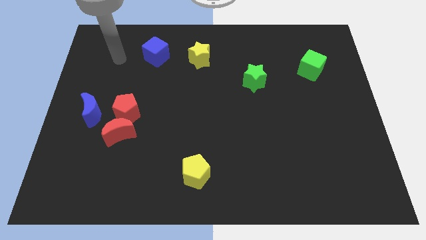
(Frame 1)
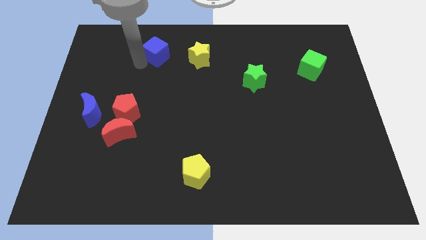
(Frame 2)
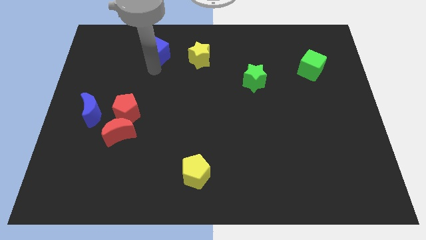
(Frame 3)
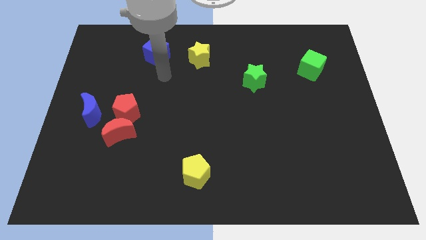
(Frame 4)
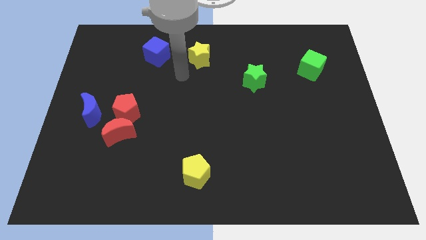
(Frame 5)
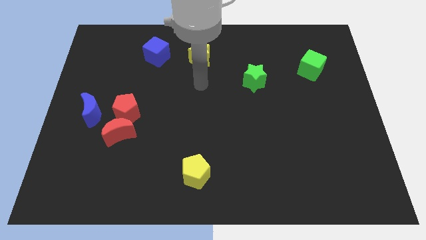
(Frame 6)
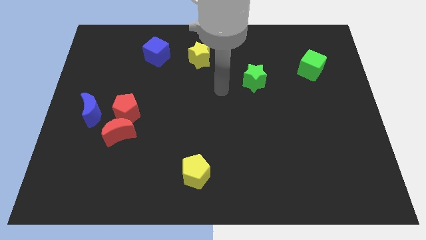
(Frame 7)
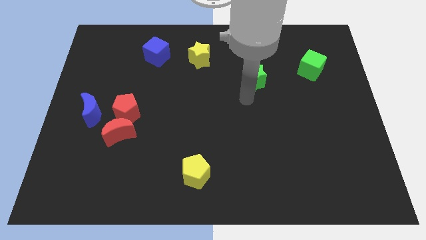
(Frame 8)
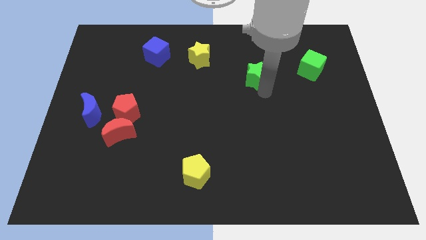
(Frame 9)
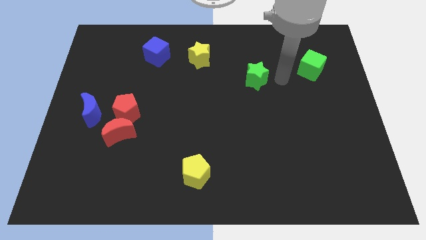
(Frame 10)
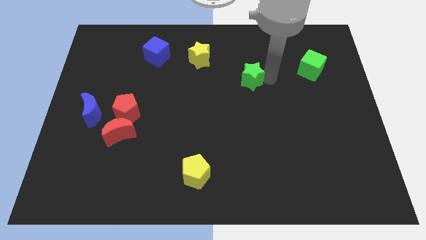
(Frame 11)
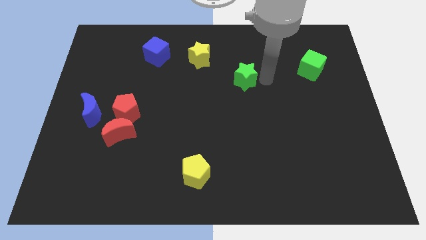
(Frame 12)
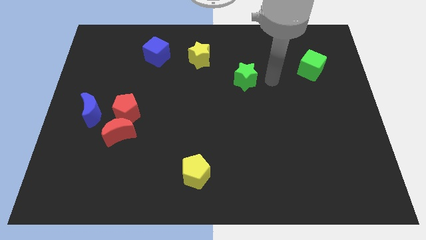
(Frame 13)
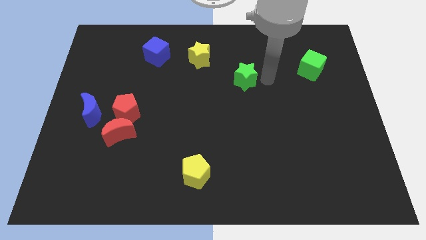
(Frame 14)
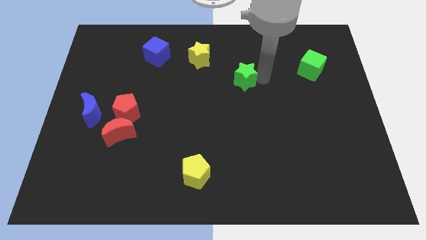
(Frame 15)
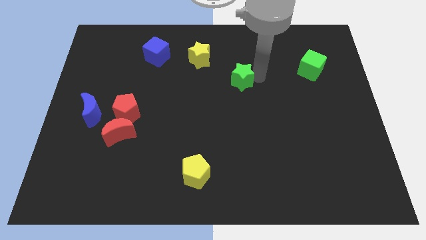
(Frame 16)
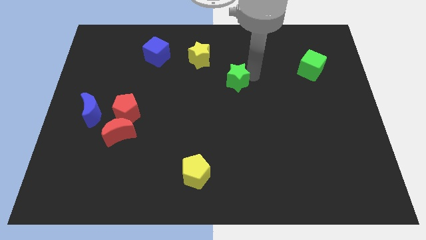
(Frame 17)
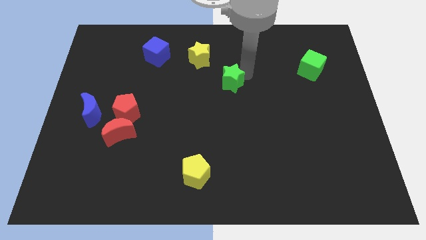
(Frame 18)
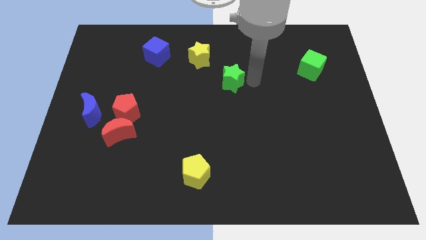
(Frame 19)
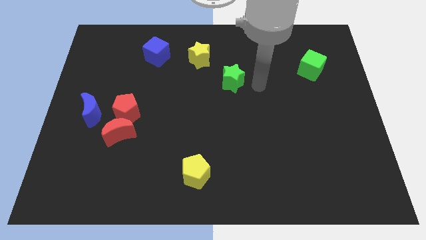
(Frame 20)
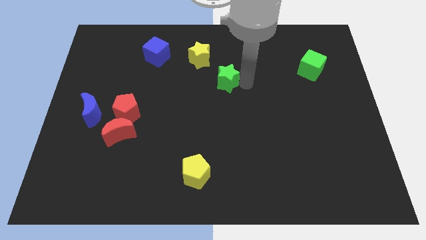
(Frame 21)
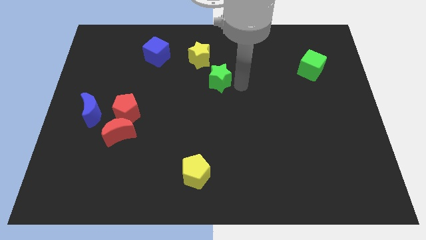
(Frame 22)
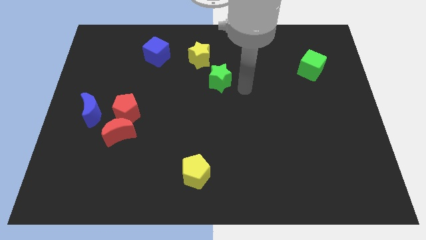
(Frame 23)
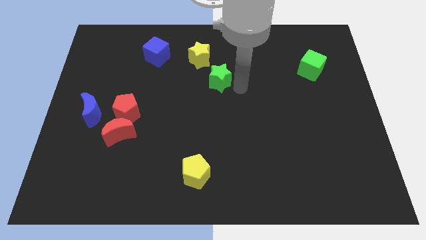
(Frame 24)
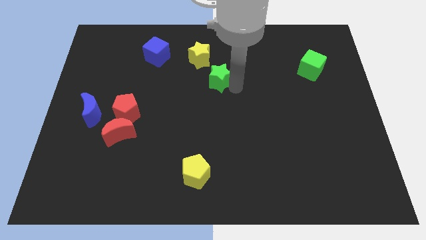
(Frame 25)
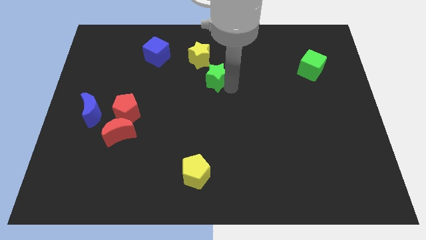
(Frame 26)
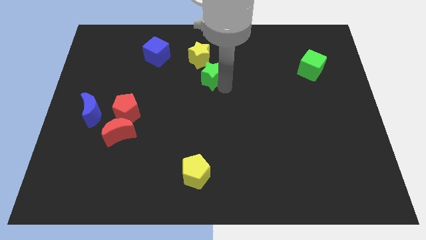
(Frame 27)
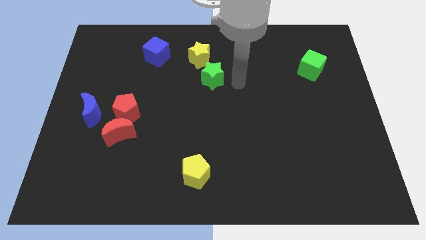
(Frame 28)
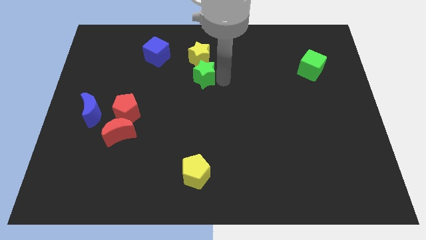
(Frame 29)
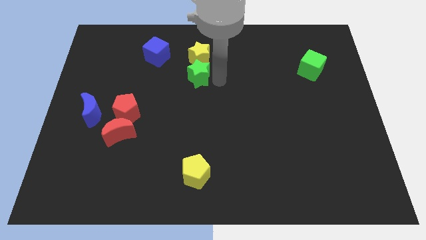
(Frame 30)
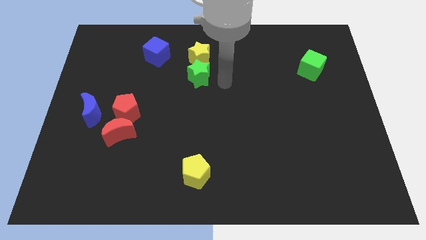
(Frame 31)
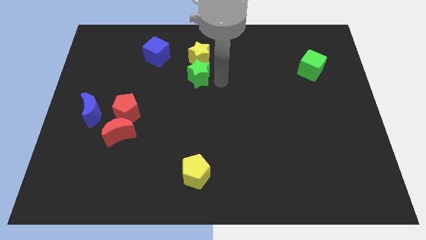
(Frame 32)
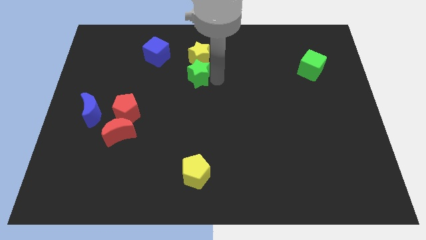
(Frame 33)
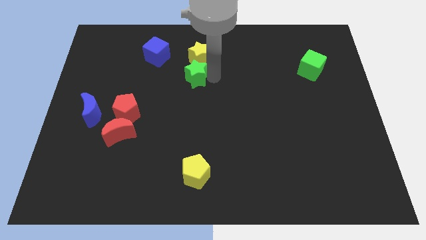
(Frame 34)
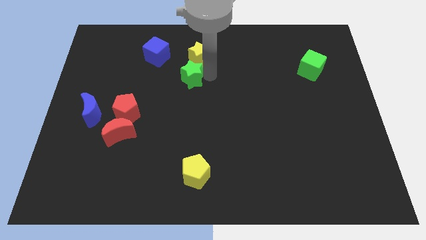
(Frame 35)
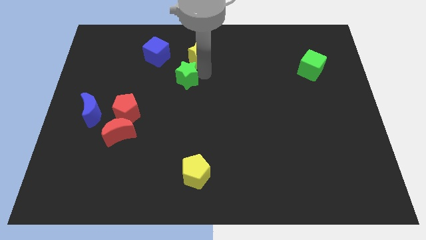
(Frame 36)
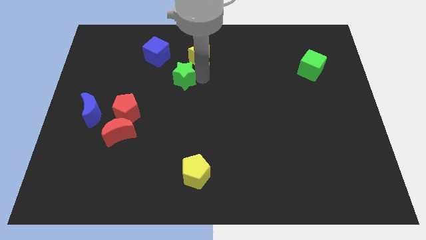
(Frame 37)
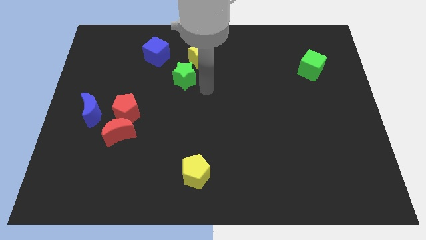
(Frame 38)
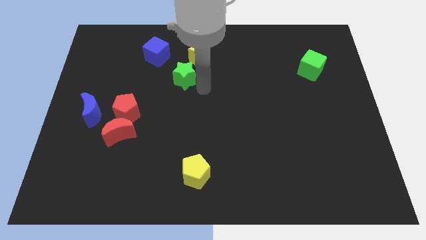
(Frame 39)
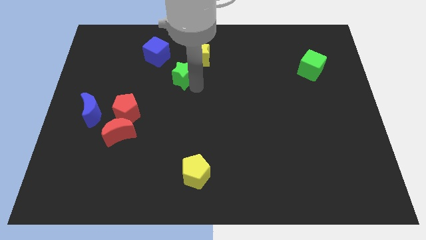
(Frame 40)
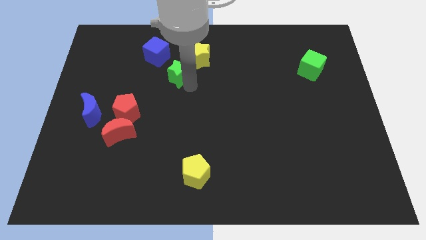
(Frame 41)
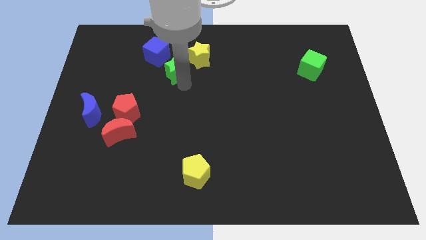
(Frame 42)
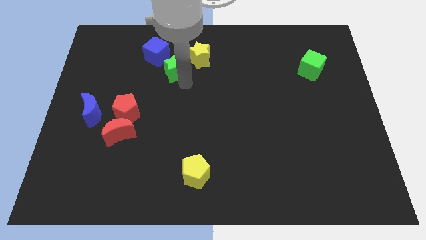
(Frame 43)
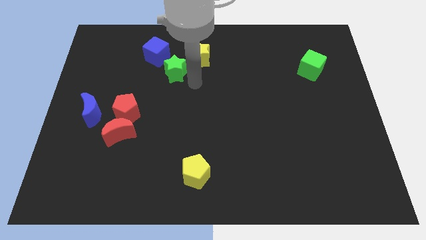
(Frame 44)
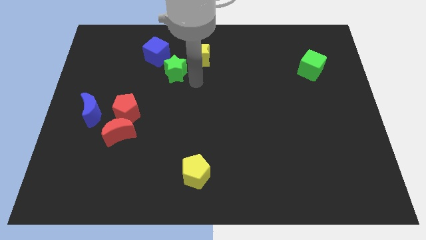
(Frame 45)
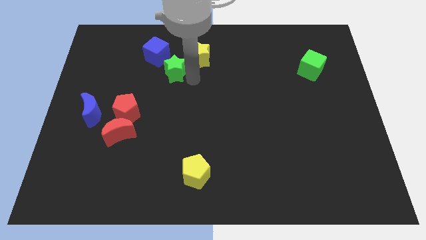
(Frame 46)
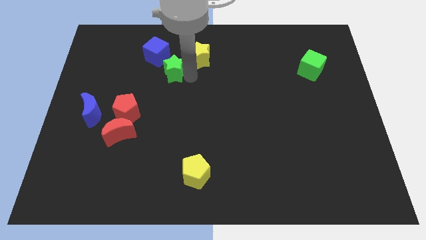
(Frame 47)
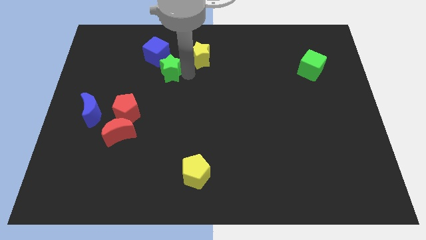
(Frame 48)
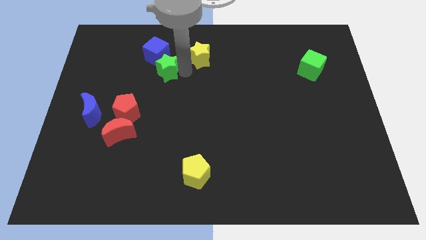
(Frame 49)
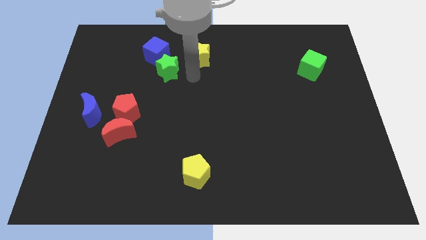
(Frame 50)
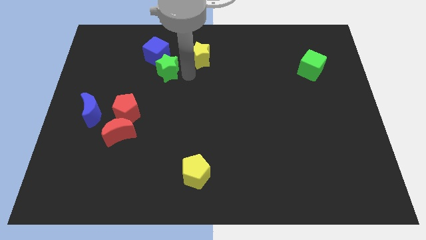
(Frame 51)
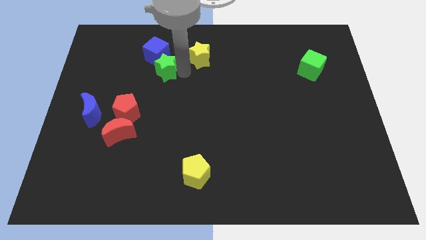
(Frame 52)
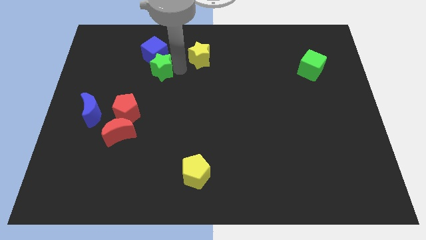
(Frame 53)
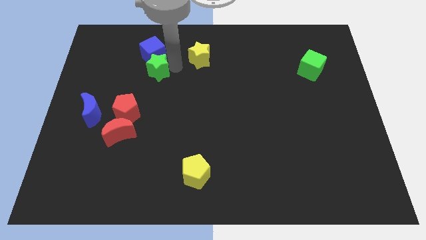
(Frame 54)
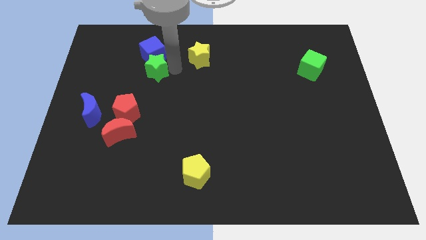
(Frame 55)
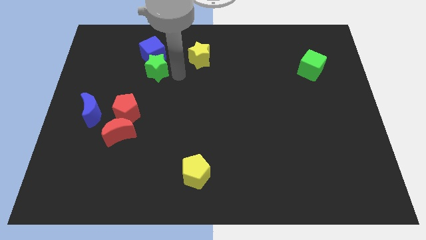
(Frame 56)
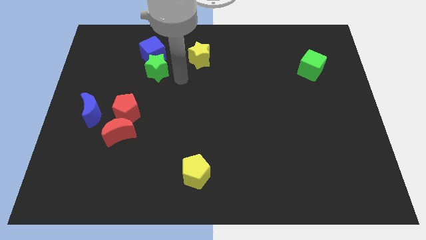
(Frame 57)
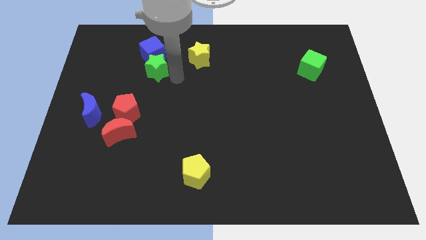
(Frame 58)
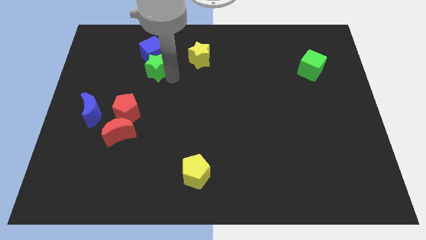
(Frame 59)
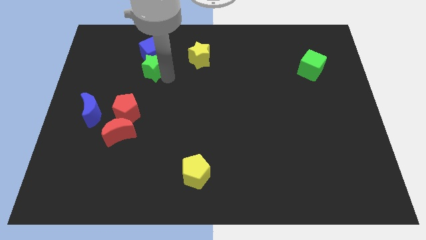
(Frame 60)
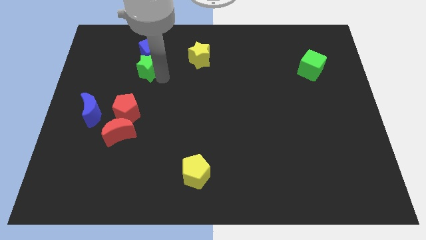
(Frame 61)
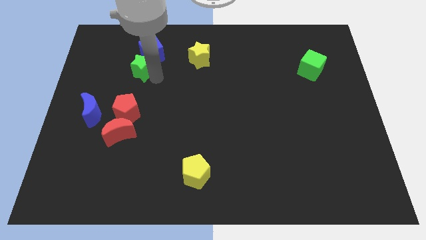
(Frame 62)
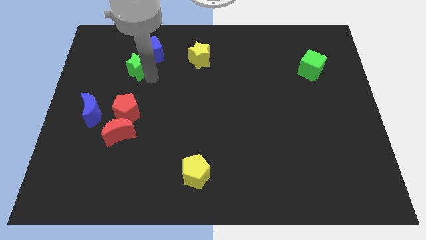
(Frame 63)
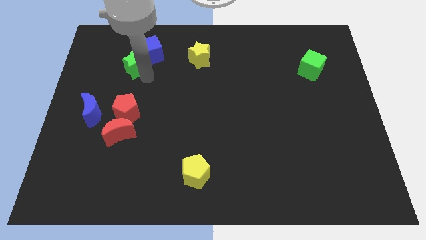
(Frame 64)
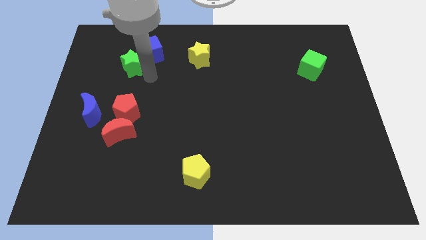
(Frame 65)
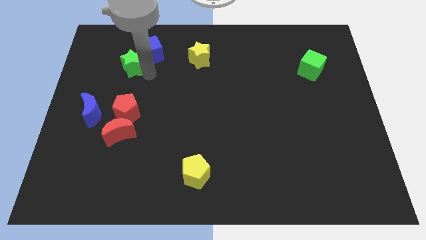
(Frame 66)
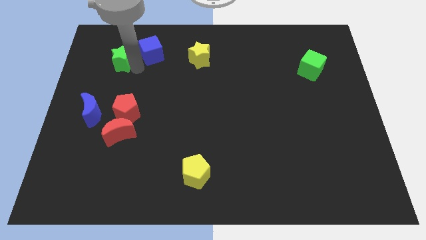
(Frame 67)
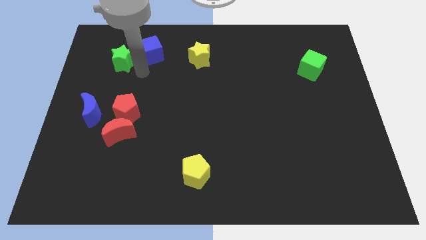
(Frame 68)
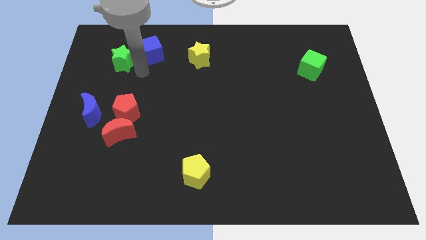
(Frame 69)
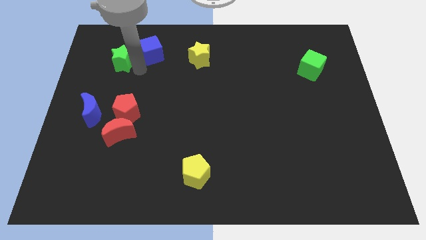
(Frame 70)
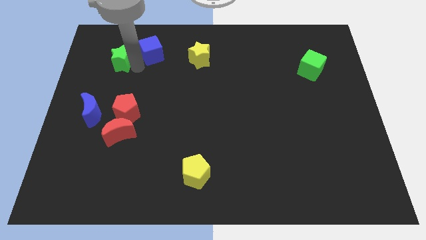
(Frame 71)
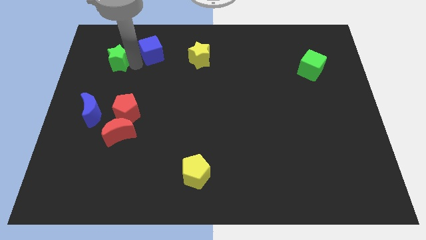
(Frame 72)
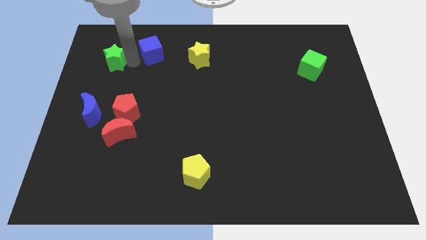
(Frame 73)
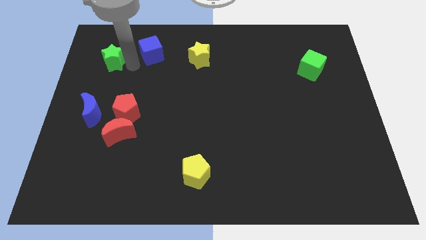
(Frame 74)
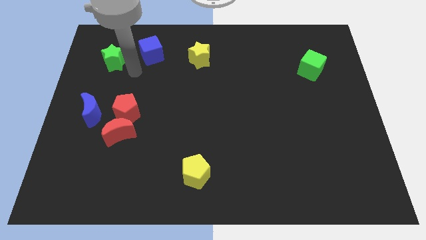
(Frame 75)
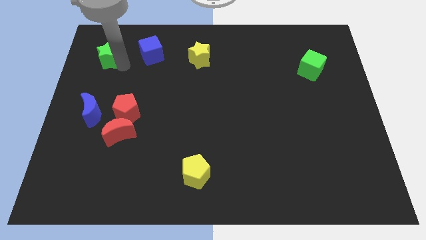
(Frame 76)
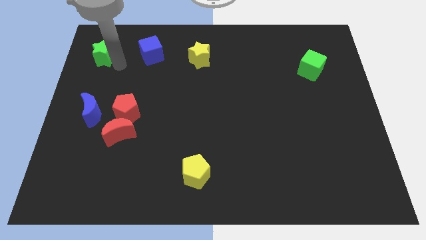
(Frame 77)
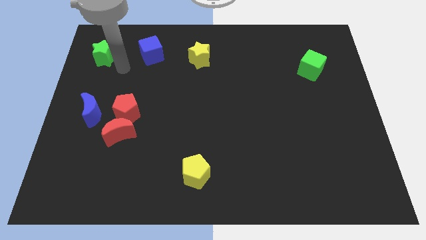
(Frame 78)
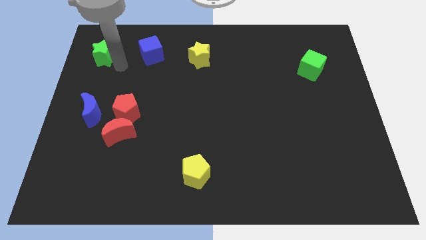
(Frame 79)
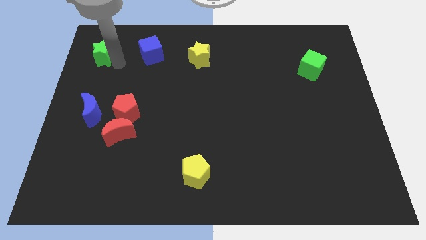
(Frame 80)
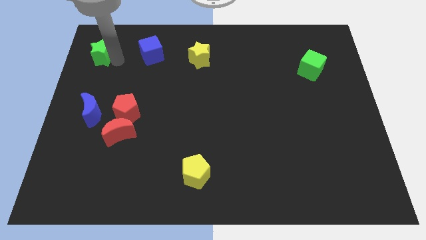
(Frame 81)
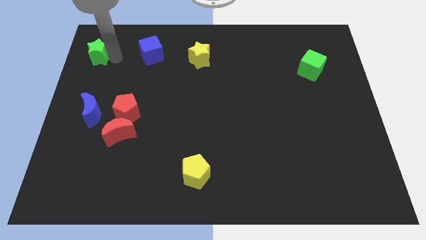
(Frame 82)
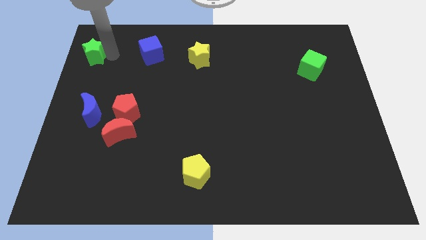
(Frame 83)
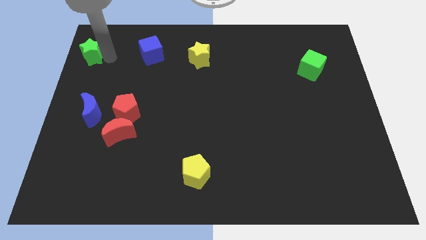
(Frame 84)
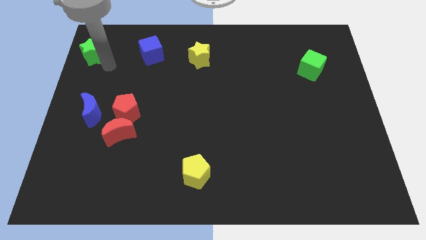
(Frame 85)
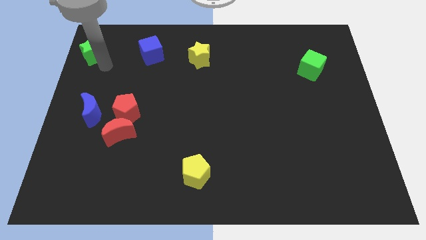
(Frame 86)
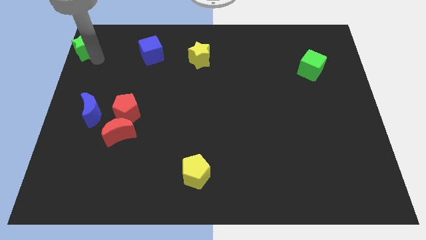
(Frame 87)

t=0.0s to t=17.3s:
move the green star to the top left corner
